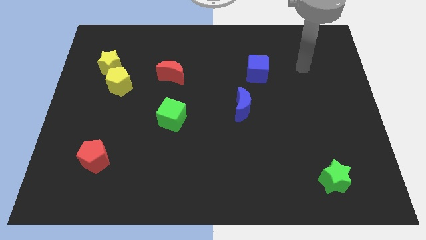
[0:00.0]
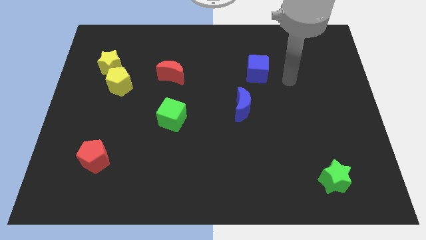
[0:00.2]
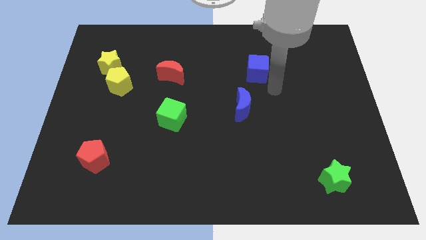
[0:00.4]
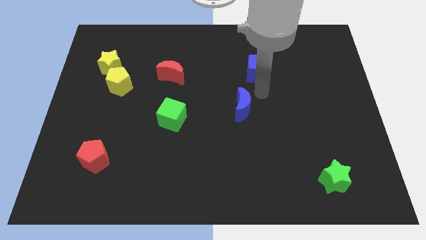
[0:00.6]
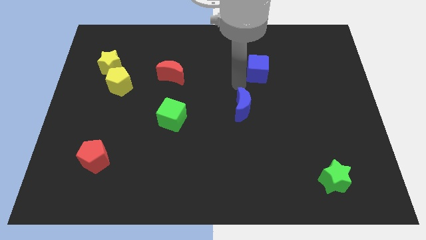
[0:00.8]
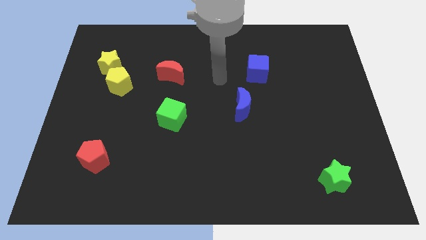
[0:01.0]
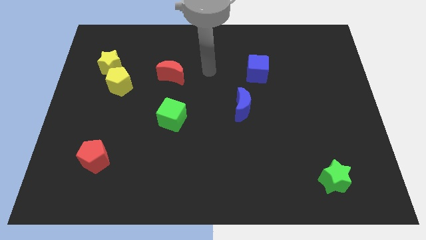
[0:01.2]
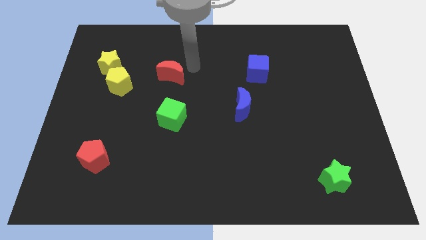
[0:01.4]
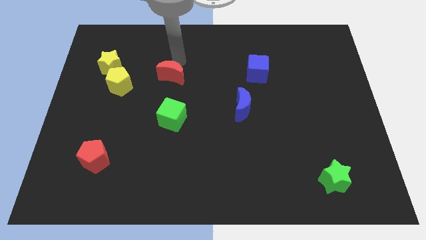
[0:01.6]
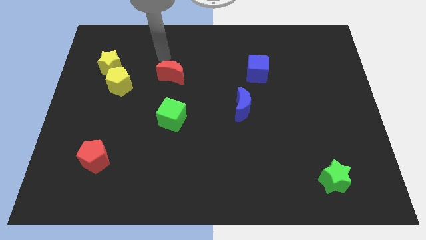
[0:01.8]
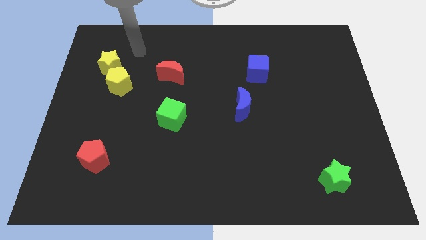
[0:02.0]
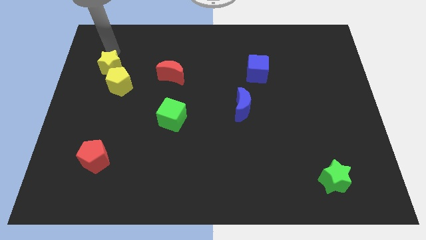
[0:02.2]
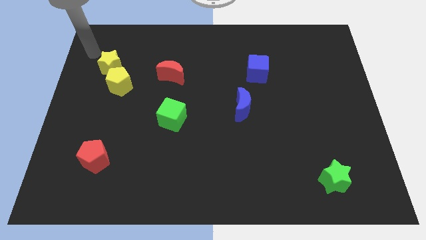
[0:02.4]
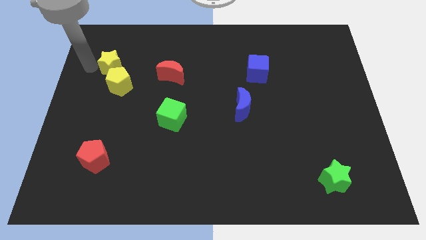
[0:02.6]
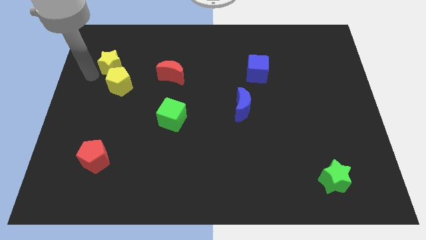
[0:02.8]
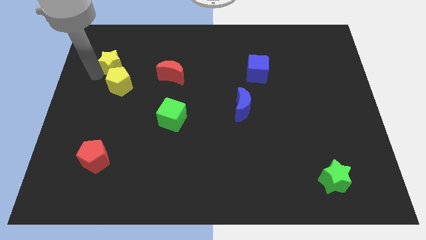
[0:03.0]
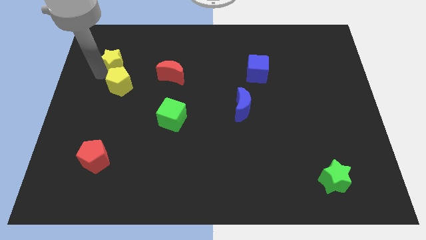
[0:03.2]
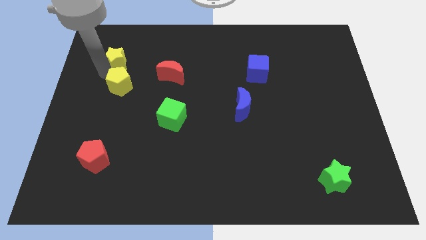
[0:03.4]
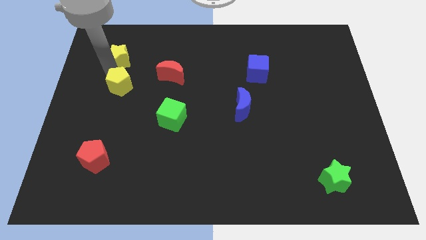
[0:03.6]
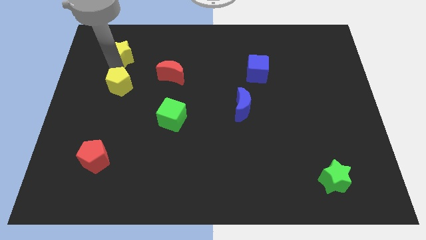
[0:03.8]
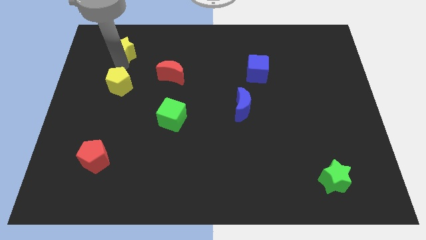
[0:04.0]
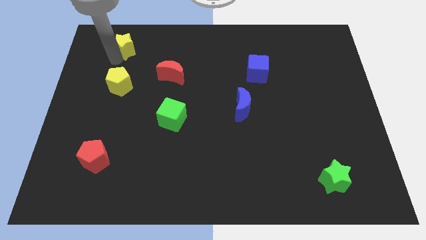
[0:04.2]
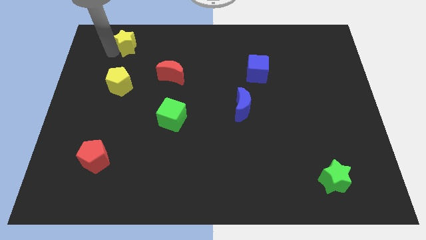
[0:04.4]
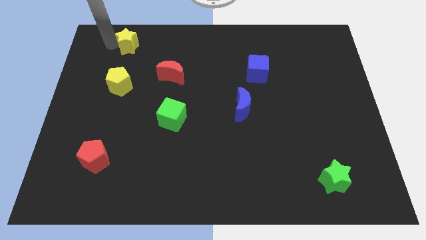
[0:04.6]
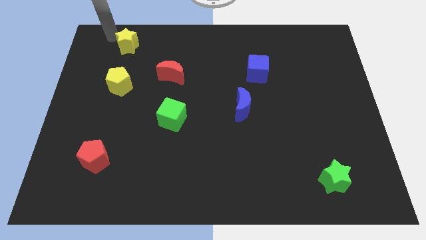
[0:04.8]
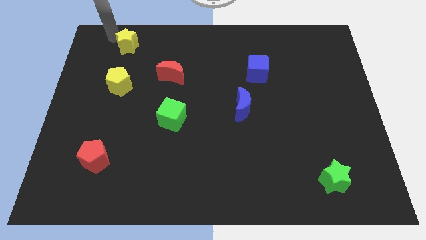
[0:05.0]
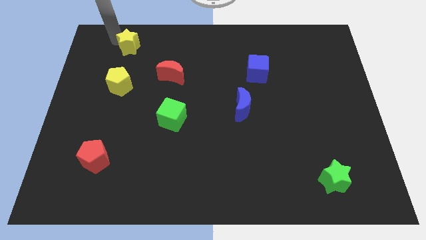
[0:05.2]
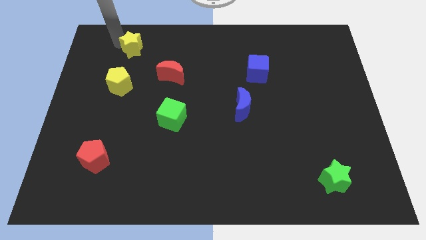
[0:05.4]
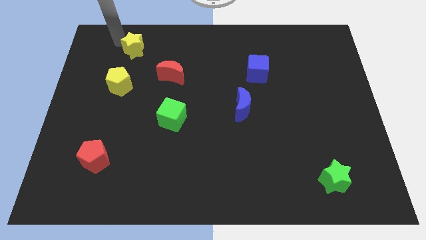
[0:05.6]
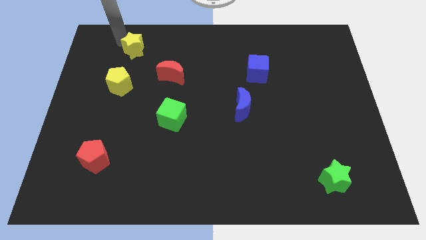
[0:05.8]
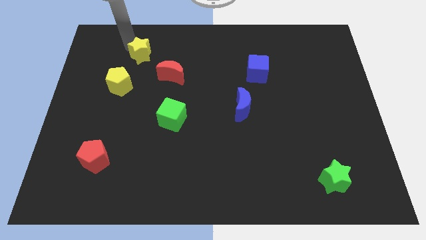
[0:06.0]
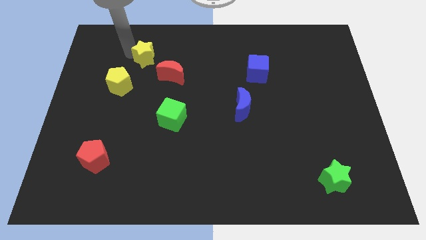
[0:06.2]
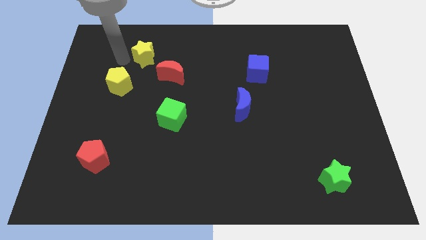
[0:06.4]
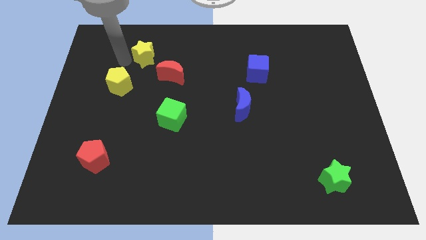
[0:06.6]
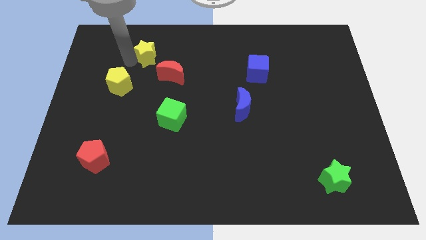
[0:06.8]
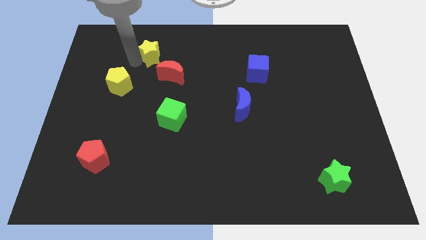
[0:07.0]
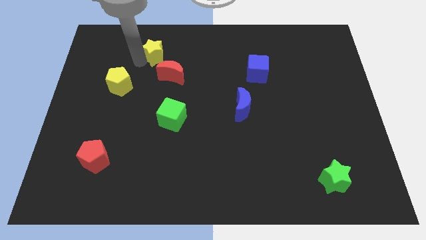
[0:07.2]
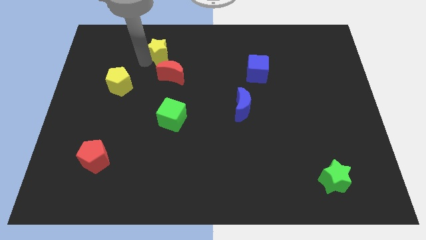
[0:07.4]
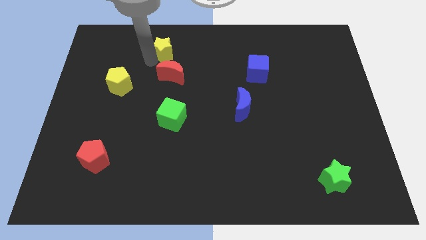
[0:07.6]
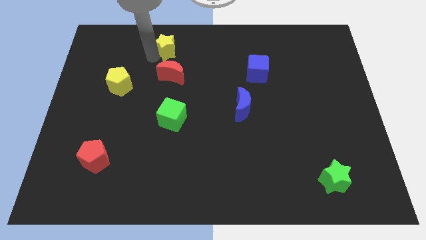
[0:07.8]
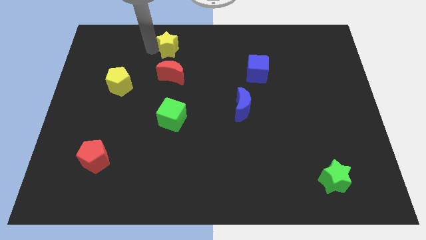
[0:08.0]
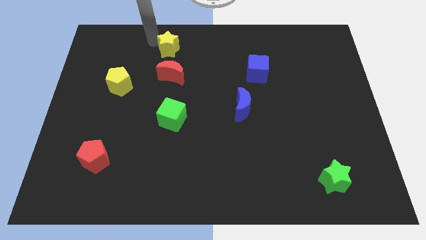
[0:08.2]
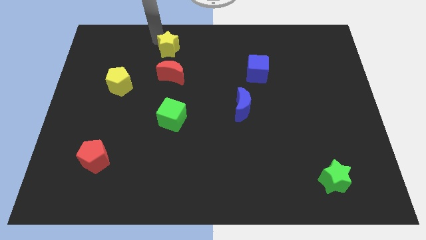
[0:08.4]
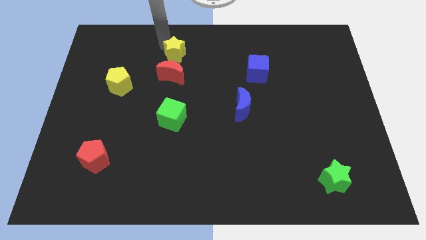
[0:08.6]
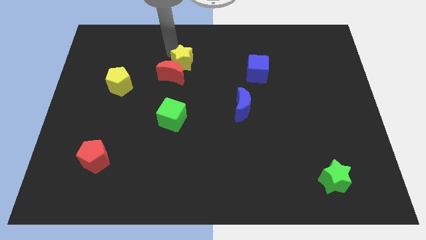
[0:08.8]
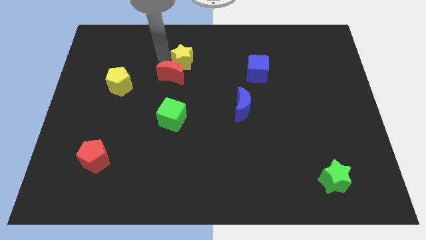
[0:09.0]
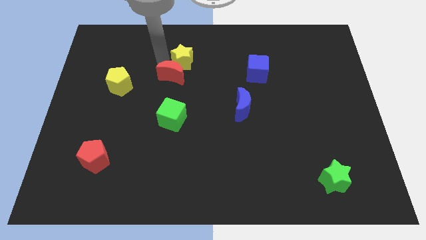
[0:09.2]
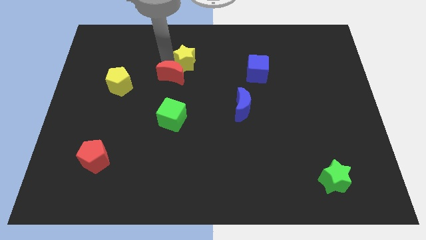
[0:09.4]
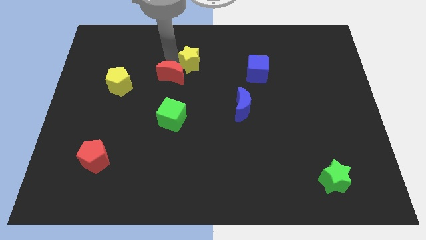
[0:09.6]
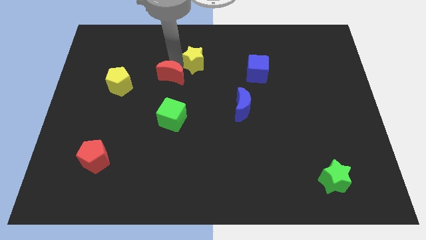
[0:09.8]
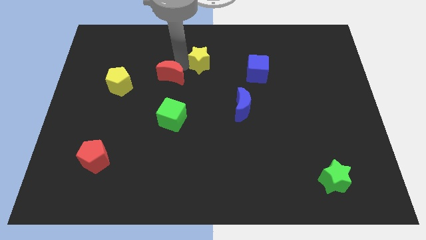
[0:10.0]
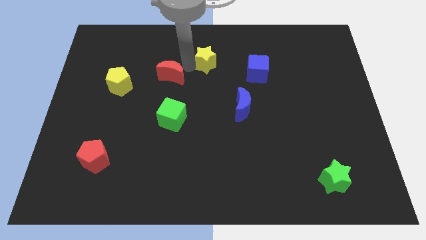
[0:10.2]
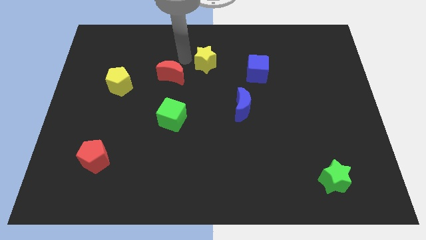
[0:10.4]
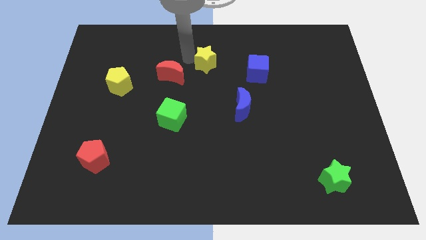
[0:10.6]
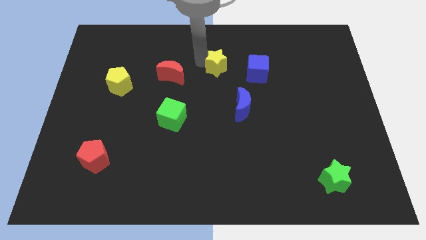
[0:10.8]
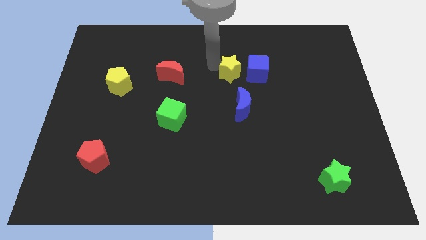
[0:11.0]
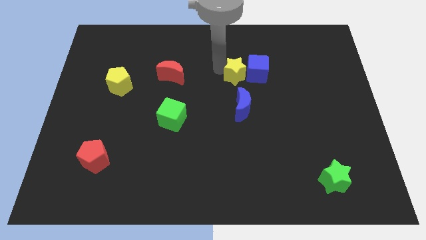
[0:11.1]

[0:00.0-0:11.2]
slide the yellow star towards the blue cube

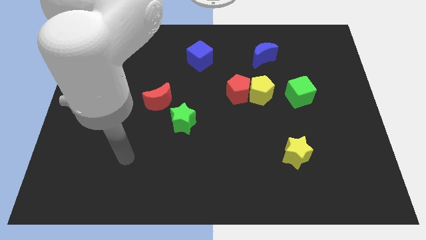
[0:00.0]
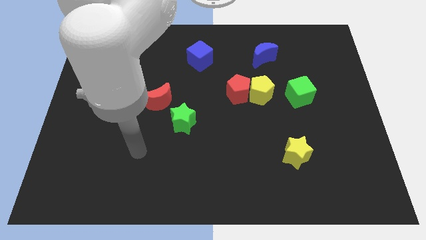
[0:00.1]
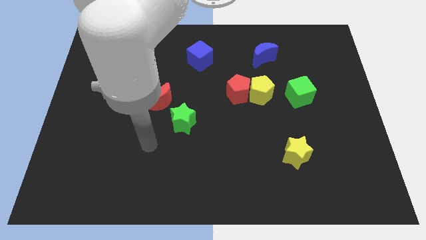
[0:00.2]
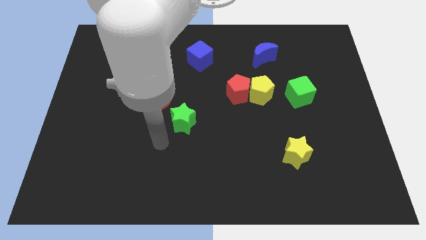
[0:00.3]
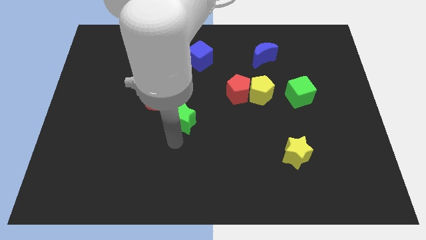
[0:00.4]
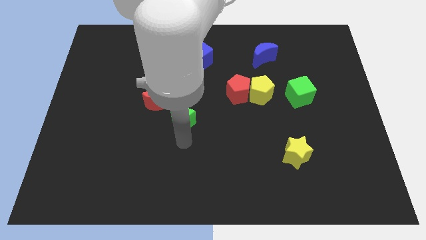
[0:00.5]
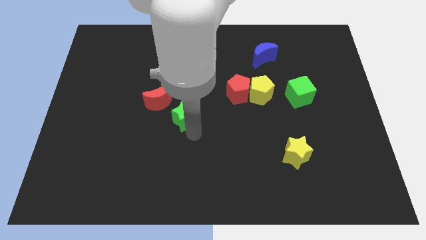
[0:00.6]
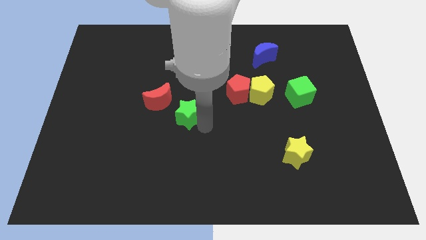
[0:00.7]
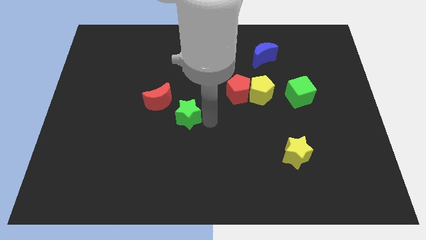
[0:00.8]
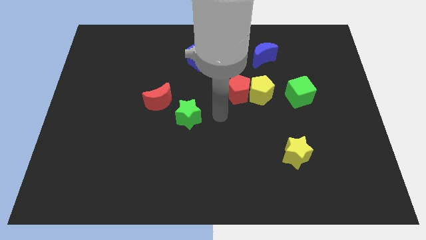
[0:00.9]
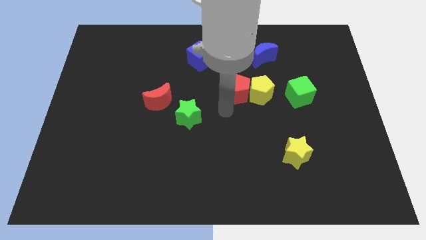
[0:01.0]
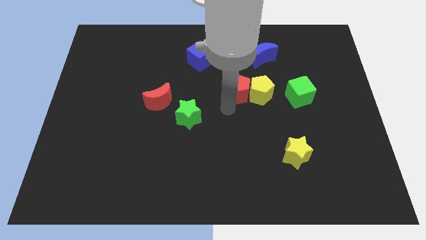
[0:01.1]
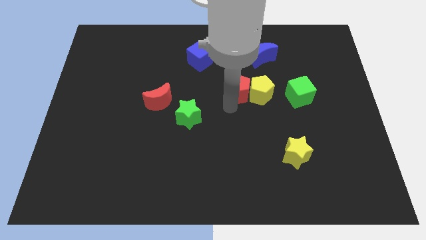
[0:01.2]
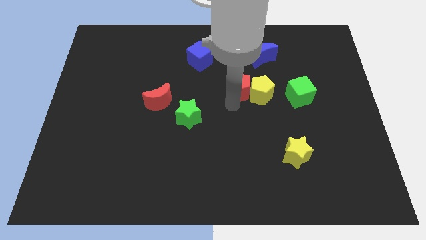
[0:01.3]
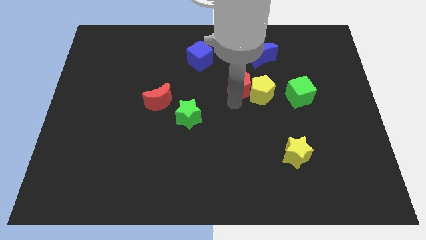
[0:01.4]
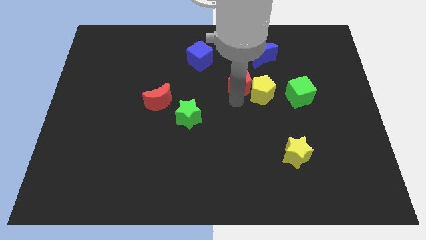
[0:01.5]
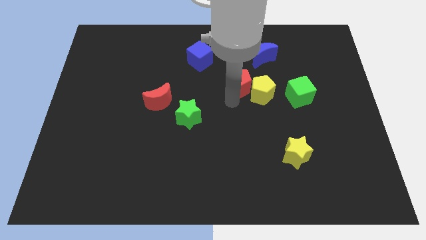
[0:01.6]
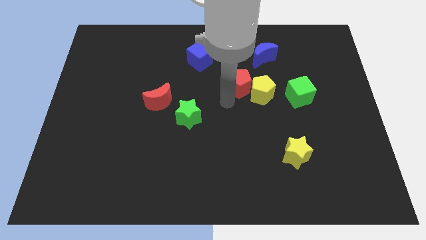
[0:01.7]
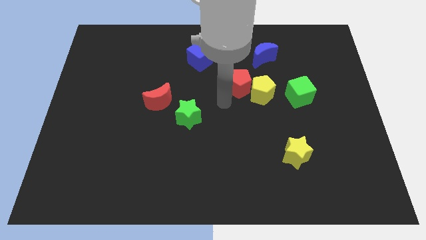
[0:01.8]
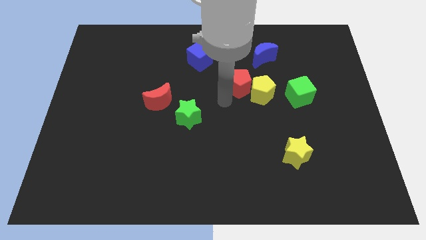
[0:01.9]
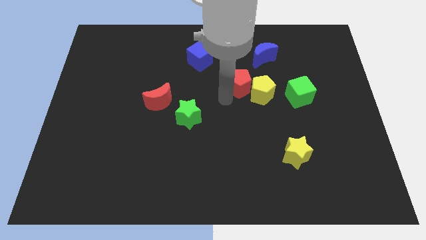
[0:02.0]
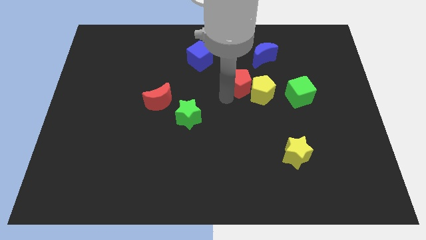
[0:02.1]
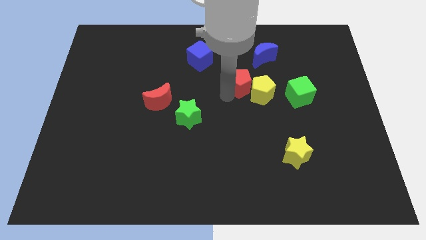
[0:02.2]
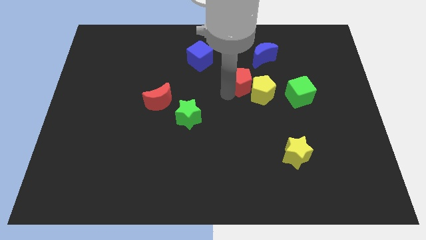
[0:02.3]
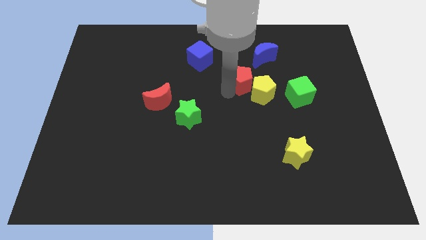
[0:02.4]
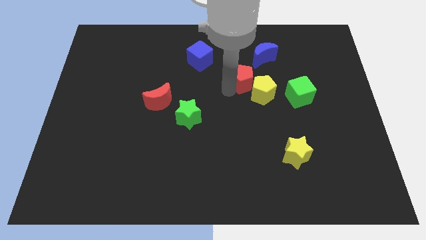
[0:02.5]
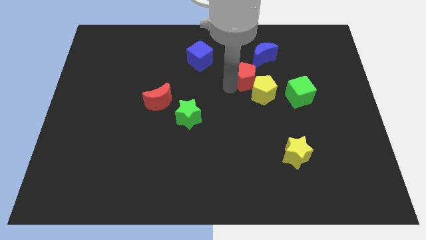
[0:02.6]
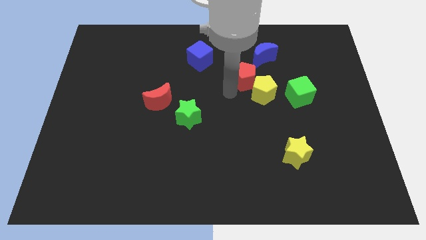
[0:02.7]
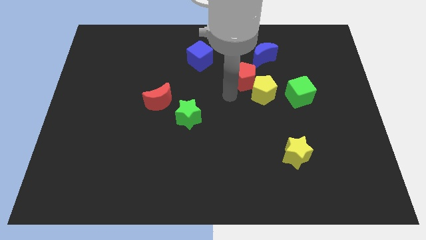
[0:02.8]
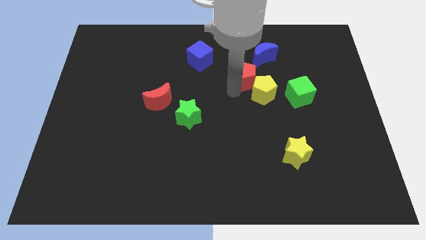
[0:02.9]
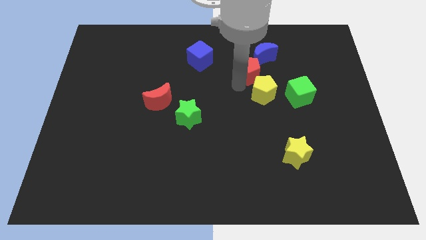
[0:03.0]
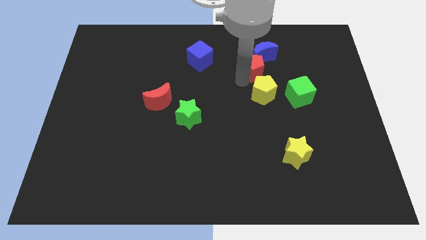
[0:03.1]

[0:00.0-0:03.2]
slide the red pentagon towards the blue moon
